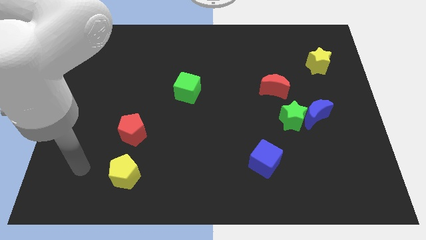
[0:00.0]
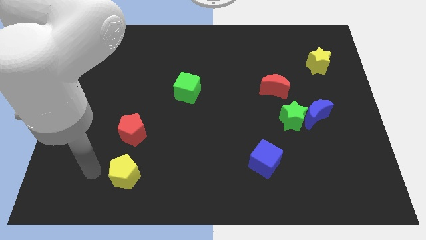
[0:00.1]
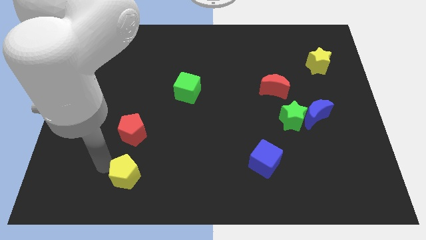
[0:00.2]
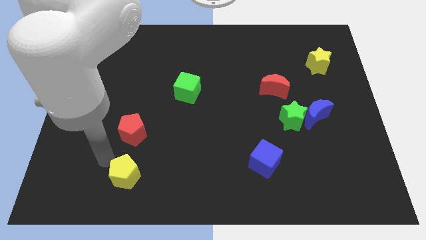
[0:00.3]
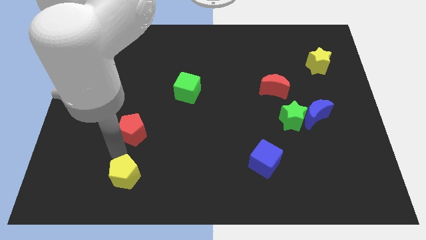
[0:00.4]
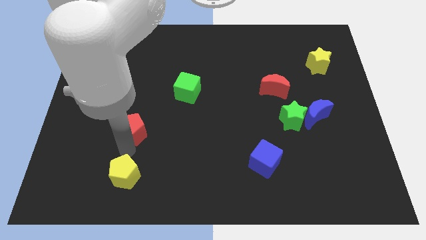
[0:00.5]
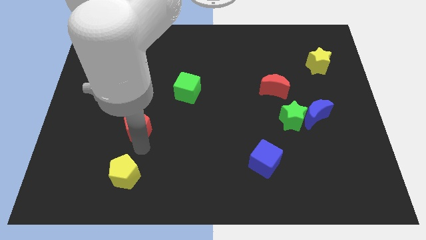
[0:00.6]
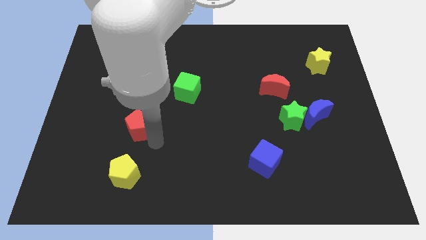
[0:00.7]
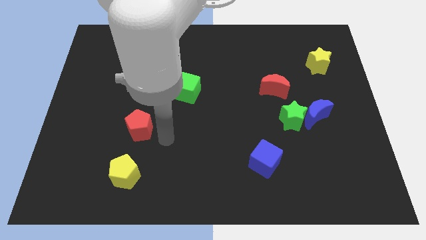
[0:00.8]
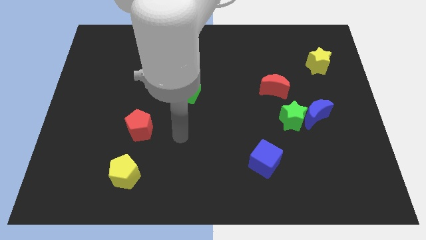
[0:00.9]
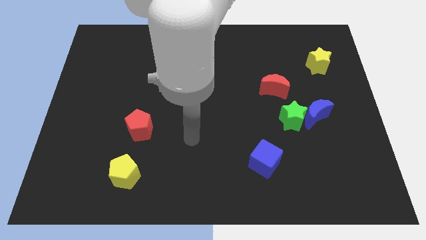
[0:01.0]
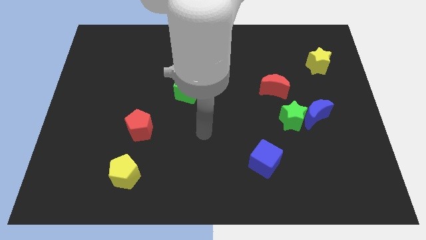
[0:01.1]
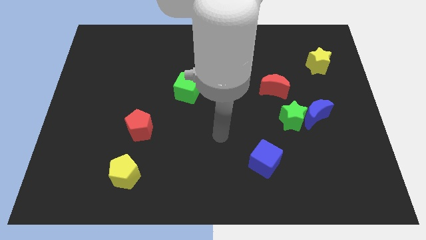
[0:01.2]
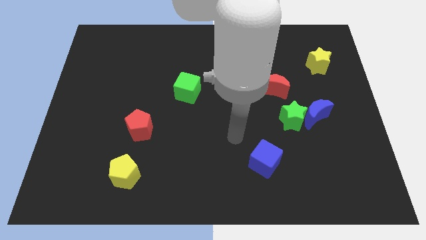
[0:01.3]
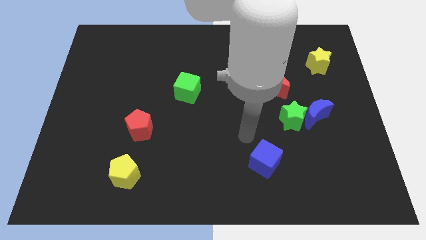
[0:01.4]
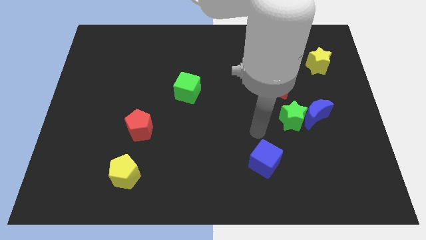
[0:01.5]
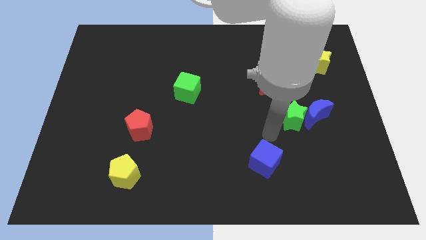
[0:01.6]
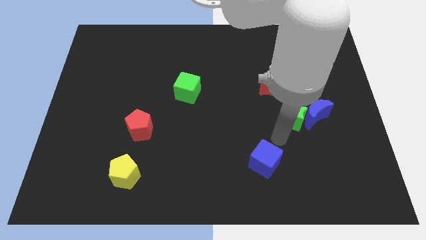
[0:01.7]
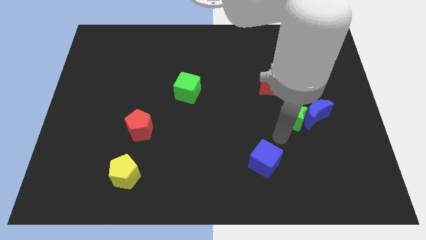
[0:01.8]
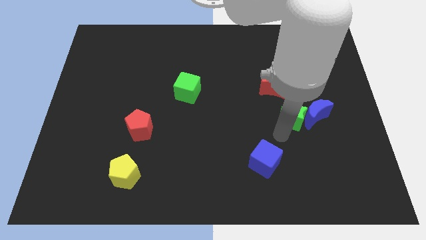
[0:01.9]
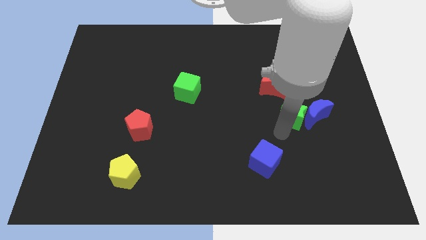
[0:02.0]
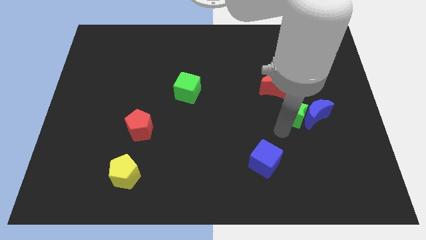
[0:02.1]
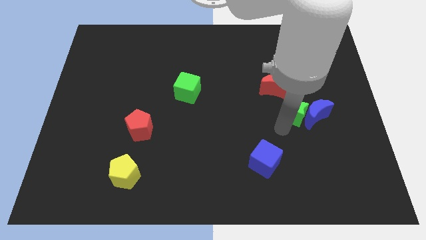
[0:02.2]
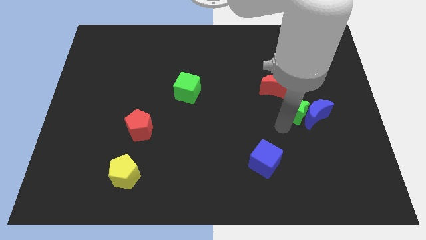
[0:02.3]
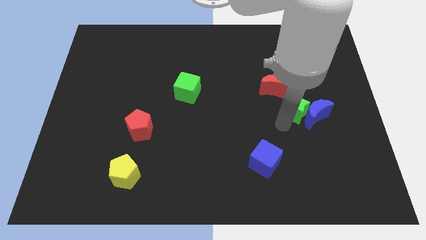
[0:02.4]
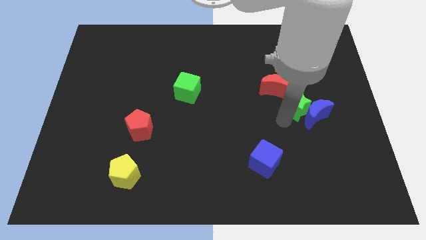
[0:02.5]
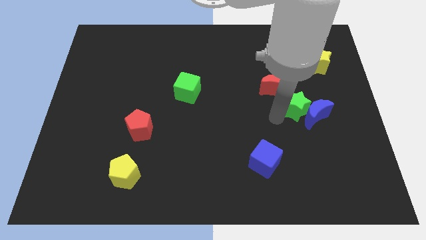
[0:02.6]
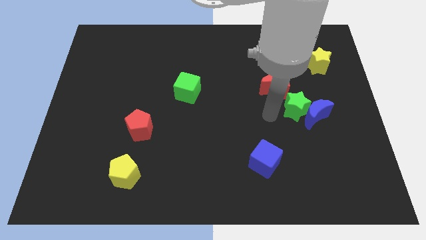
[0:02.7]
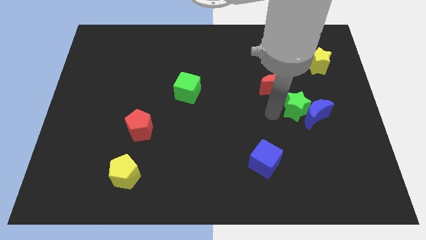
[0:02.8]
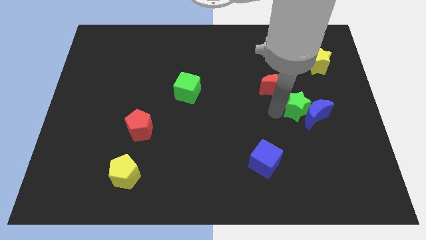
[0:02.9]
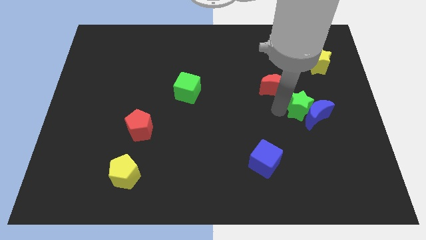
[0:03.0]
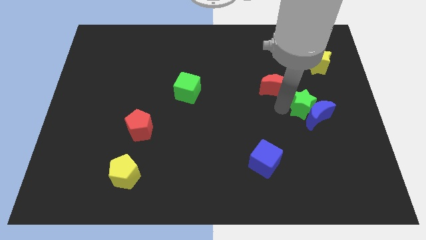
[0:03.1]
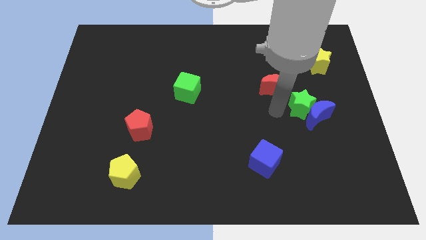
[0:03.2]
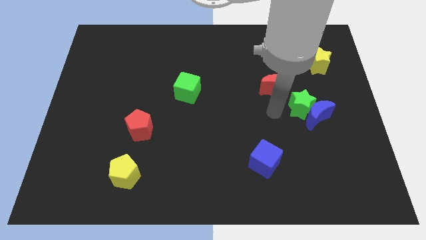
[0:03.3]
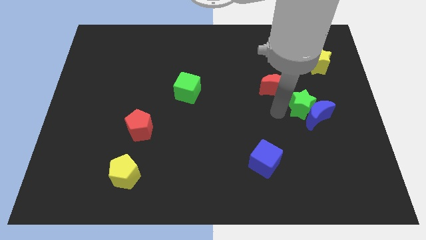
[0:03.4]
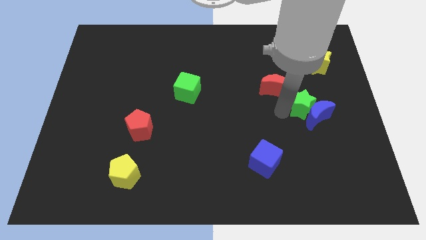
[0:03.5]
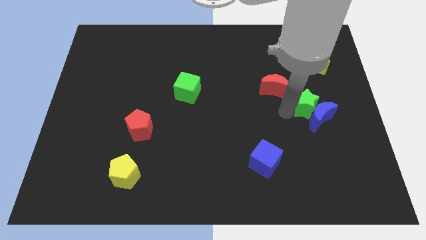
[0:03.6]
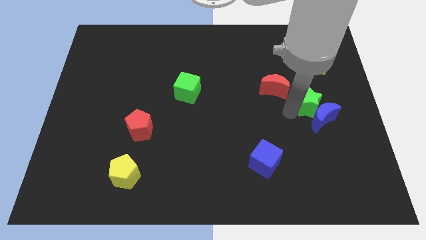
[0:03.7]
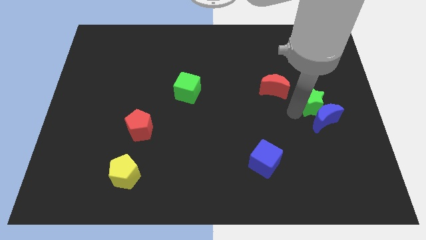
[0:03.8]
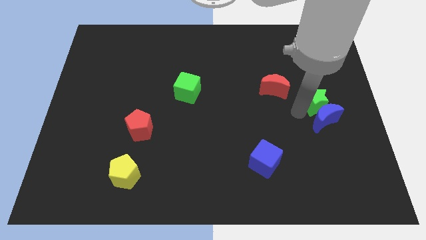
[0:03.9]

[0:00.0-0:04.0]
slide the green star to the top right side of the blue moon

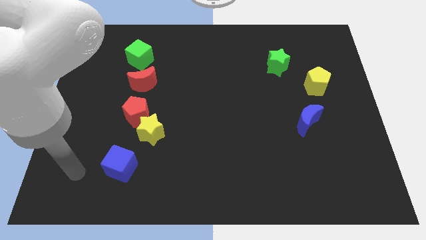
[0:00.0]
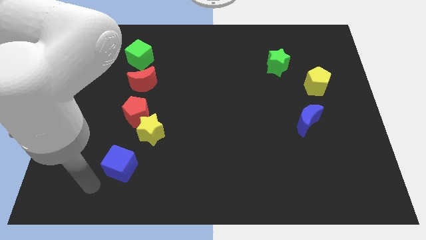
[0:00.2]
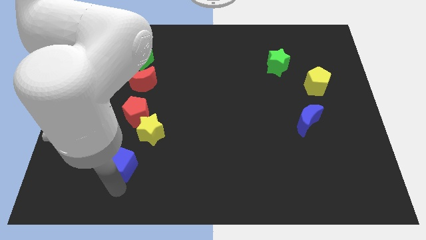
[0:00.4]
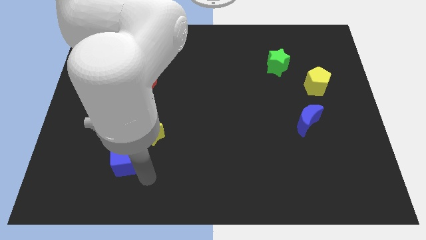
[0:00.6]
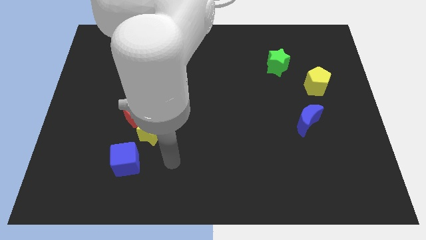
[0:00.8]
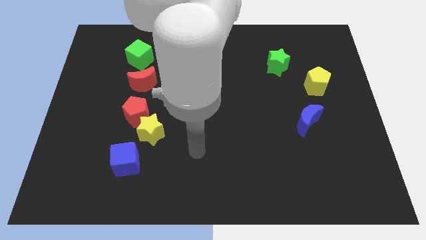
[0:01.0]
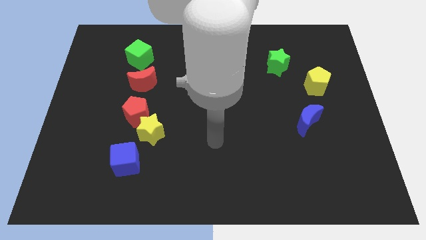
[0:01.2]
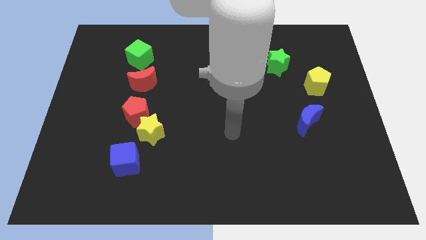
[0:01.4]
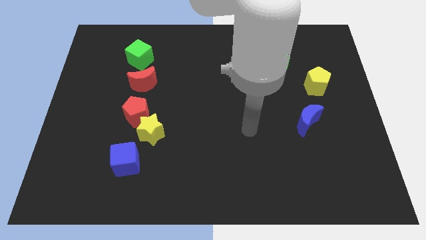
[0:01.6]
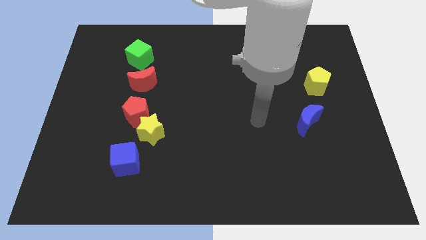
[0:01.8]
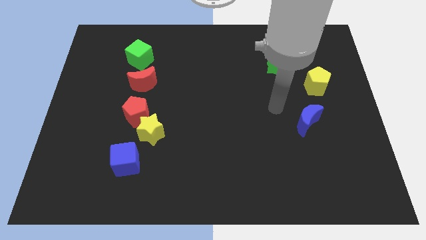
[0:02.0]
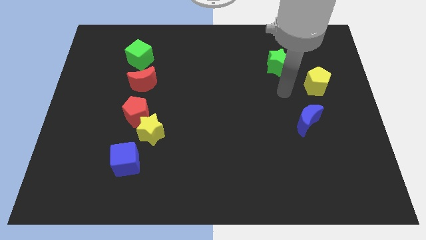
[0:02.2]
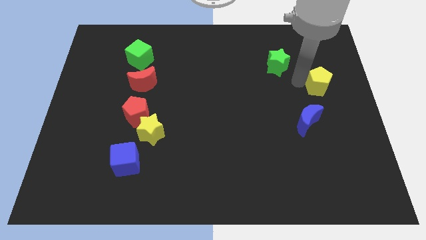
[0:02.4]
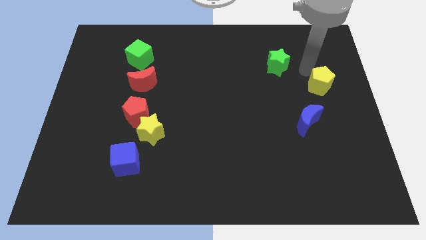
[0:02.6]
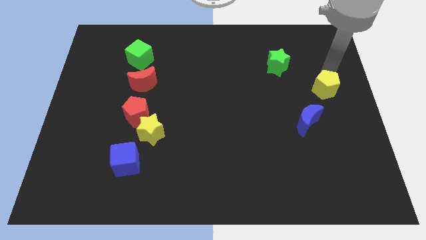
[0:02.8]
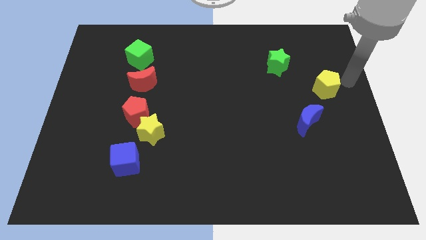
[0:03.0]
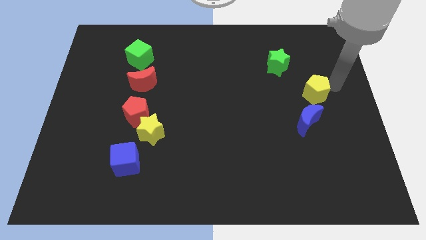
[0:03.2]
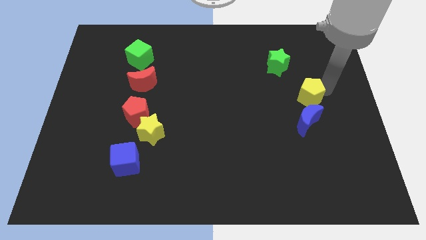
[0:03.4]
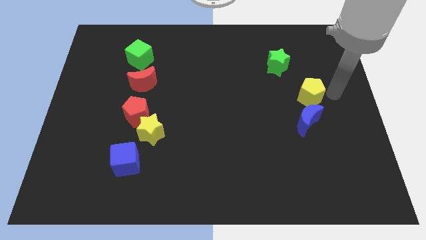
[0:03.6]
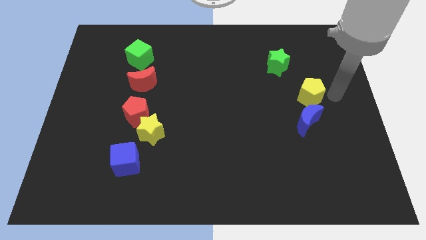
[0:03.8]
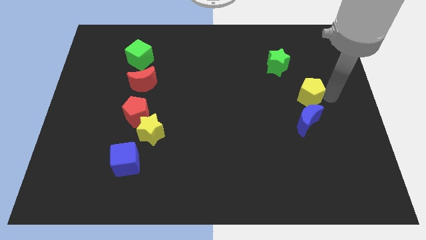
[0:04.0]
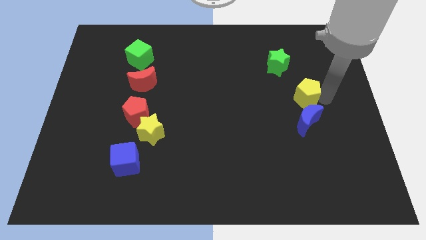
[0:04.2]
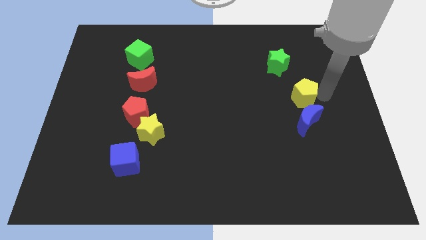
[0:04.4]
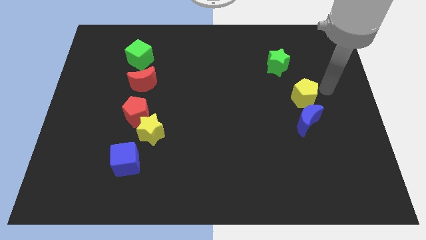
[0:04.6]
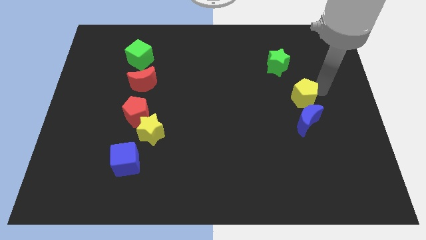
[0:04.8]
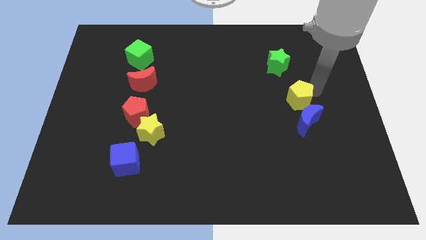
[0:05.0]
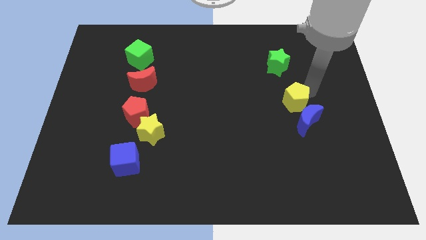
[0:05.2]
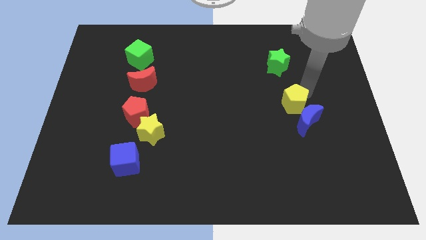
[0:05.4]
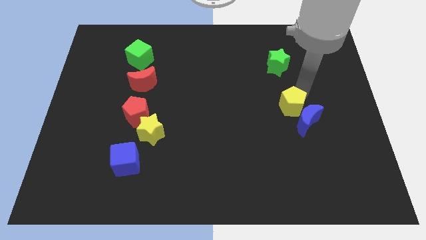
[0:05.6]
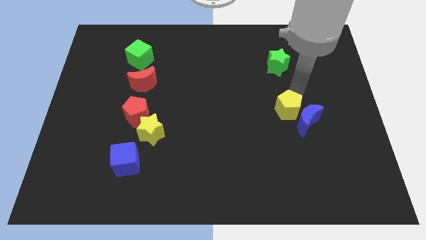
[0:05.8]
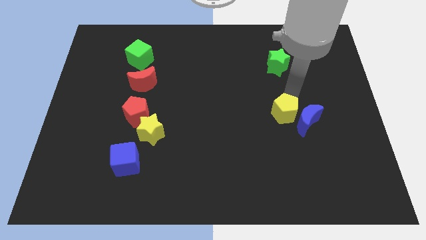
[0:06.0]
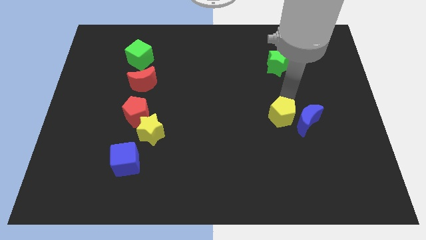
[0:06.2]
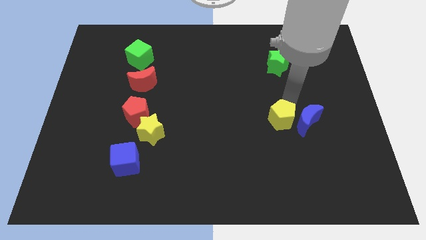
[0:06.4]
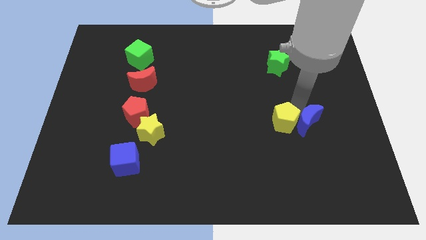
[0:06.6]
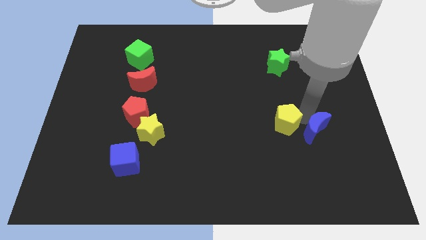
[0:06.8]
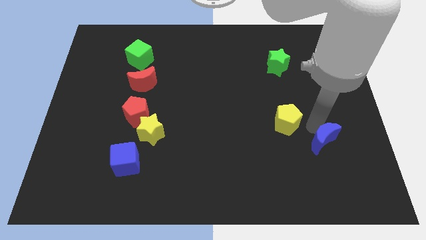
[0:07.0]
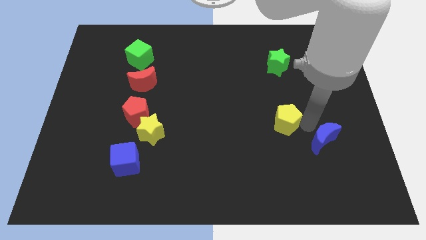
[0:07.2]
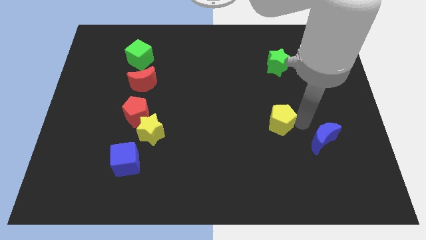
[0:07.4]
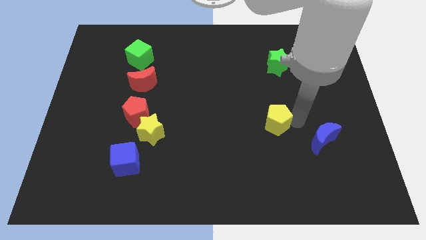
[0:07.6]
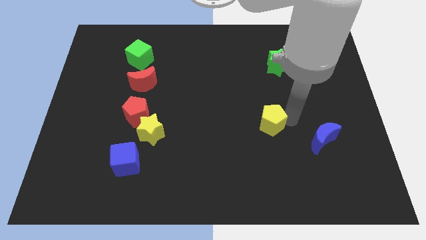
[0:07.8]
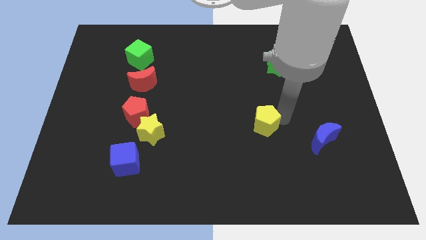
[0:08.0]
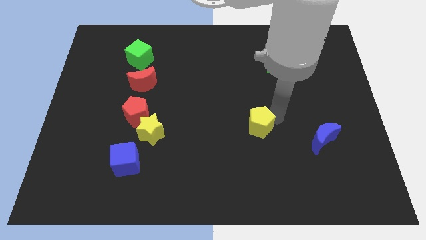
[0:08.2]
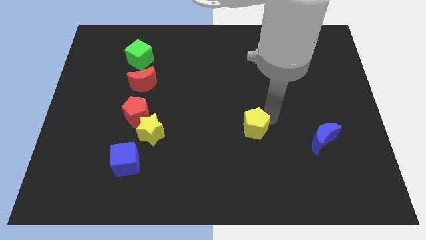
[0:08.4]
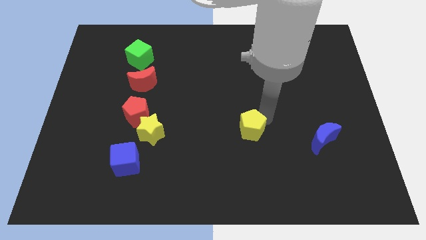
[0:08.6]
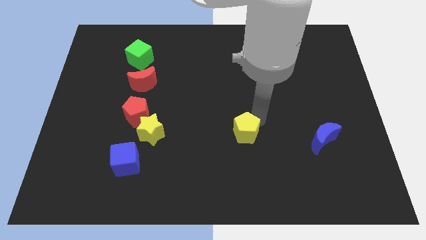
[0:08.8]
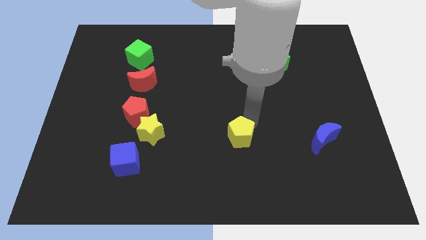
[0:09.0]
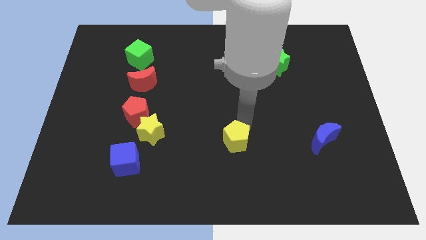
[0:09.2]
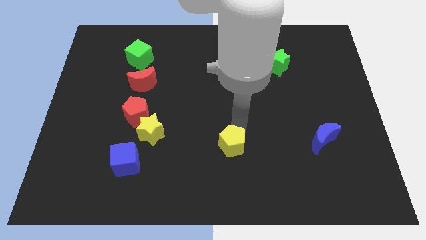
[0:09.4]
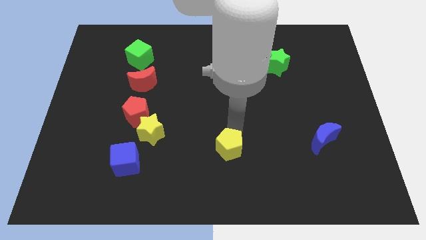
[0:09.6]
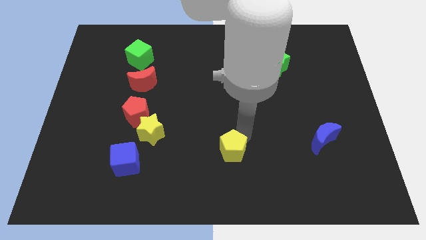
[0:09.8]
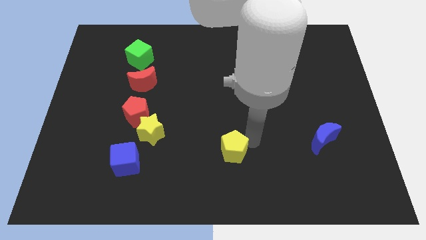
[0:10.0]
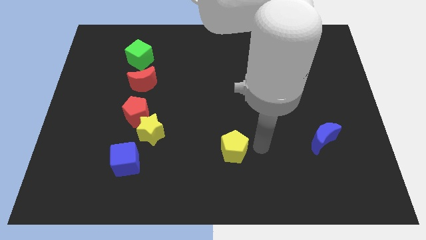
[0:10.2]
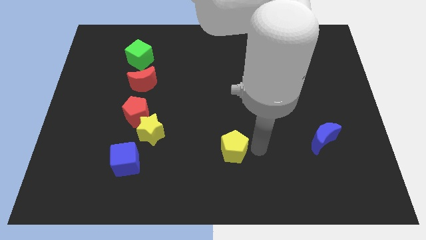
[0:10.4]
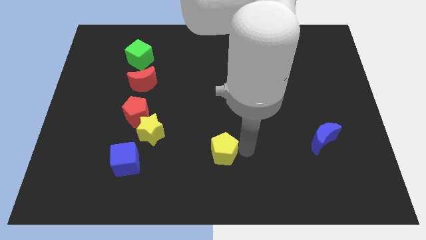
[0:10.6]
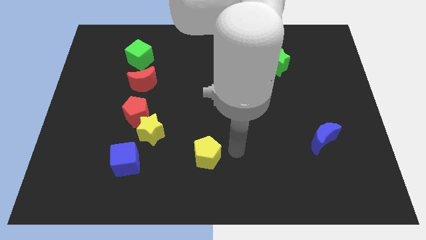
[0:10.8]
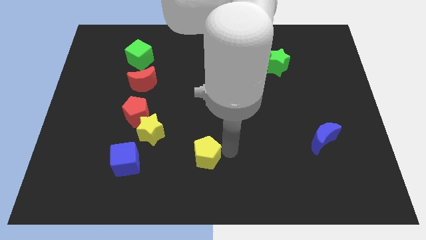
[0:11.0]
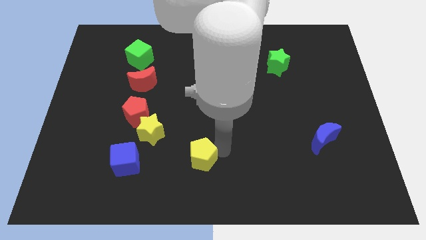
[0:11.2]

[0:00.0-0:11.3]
slide the yellow pentagon to the right side of the blue cube
